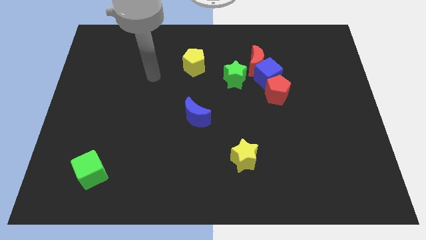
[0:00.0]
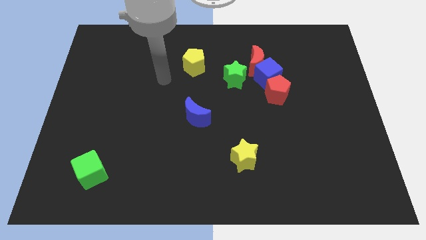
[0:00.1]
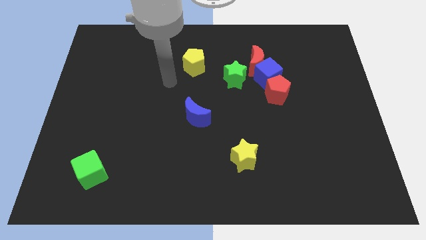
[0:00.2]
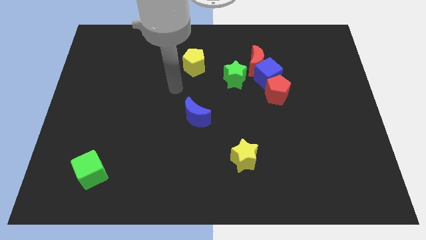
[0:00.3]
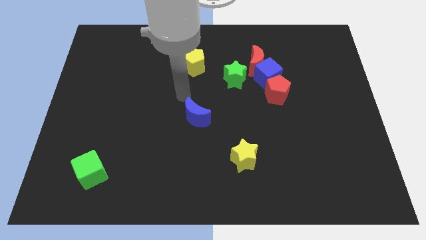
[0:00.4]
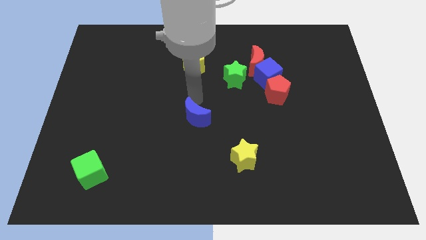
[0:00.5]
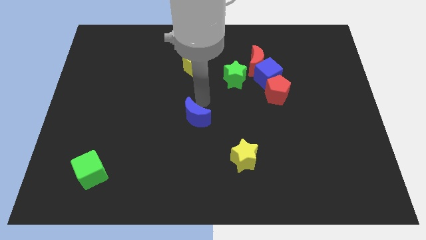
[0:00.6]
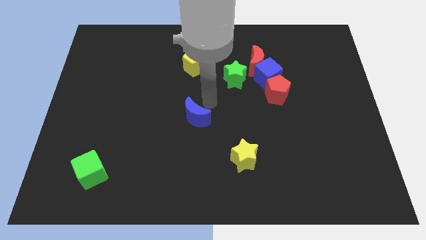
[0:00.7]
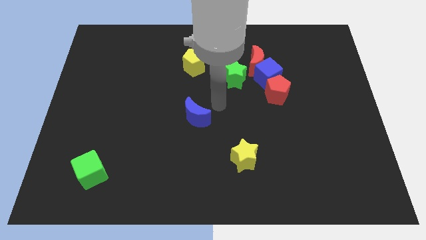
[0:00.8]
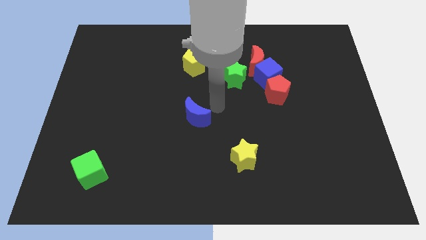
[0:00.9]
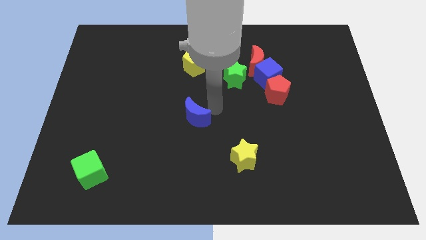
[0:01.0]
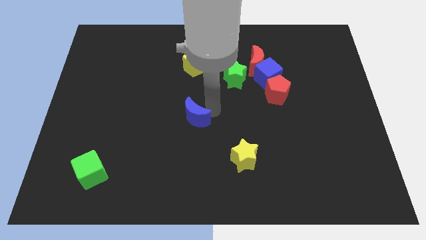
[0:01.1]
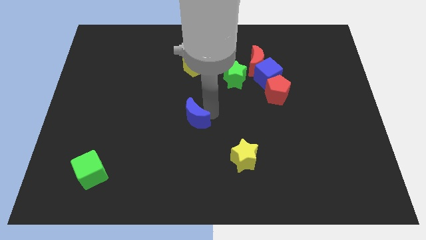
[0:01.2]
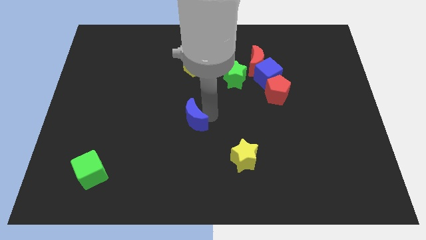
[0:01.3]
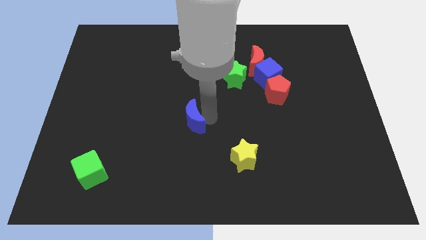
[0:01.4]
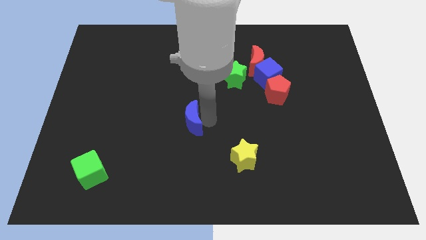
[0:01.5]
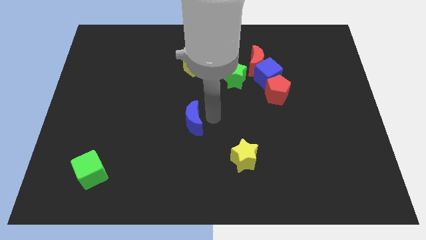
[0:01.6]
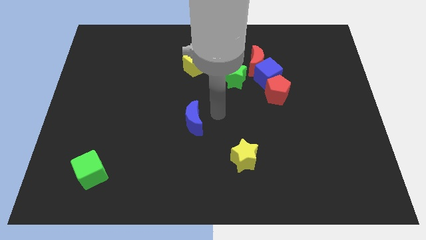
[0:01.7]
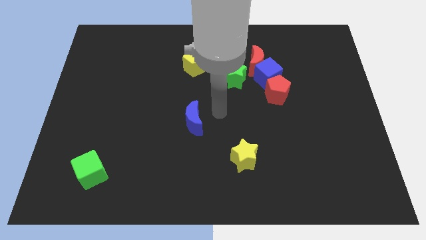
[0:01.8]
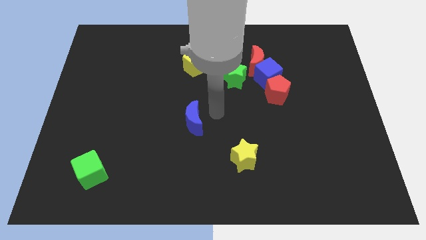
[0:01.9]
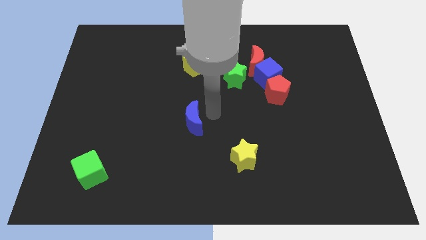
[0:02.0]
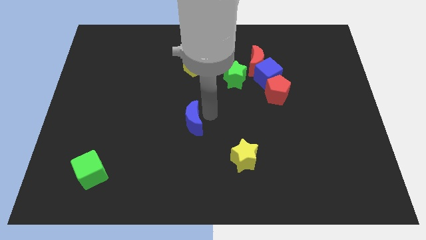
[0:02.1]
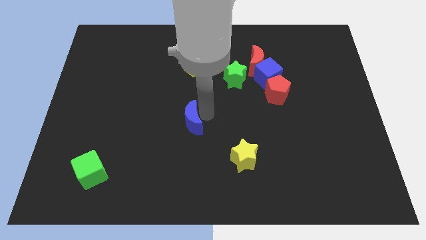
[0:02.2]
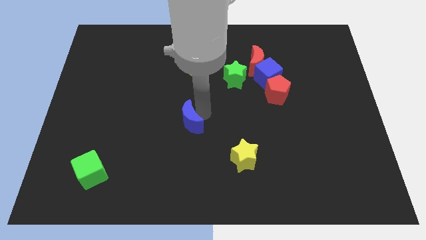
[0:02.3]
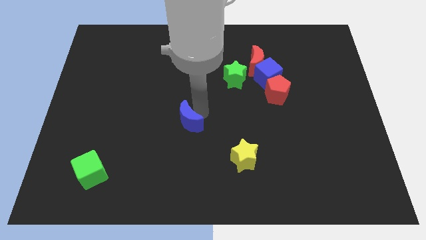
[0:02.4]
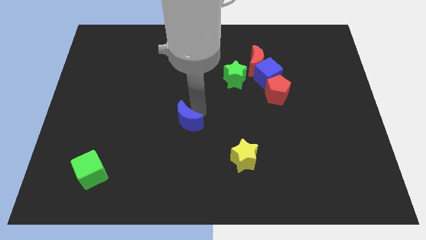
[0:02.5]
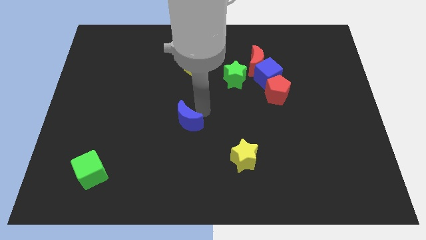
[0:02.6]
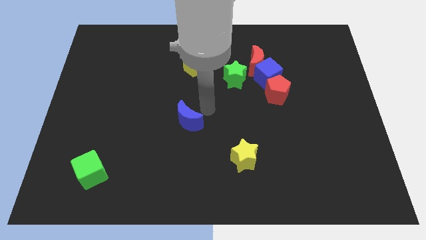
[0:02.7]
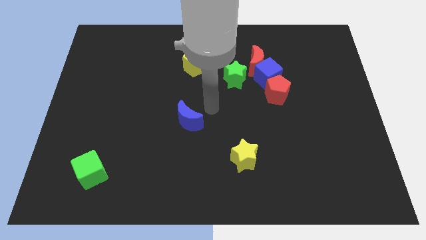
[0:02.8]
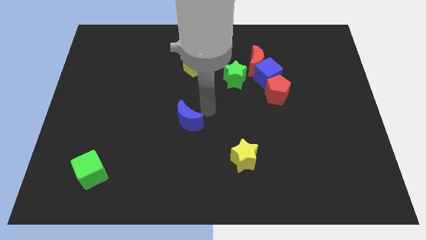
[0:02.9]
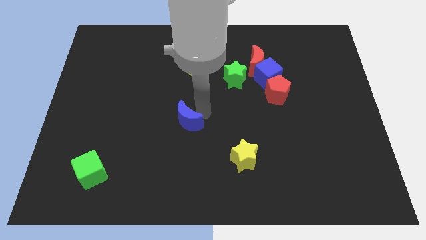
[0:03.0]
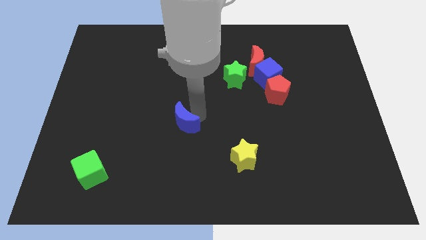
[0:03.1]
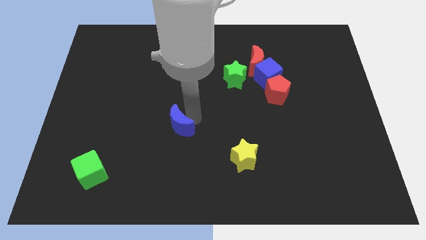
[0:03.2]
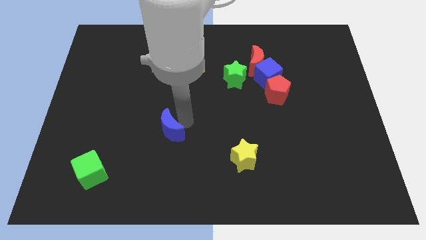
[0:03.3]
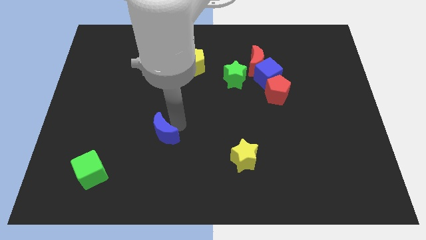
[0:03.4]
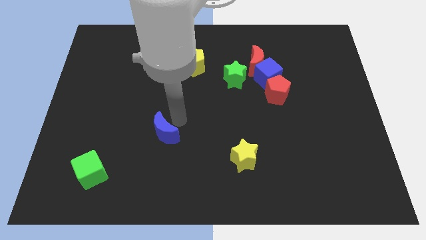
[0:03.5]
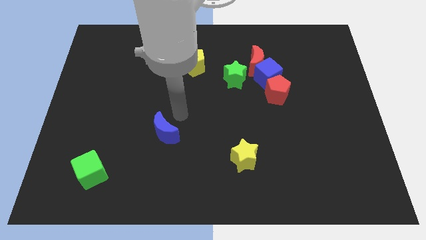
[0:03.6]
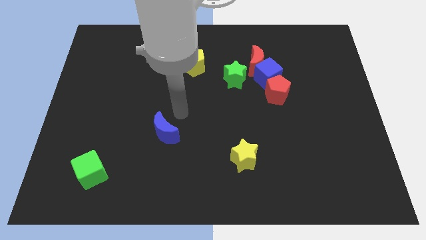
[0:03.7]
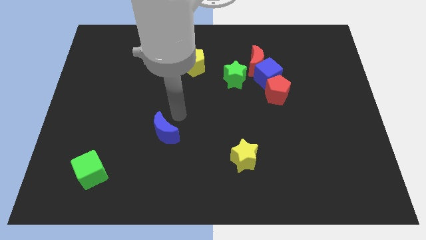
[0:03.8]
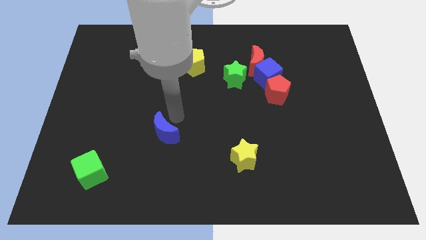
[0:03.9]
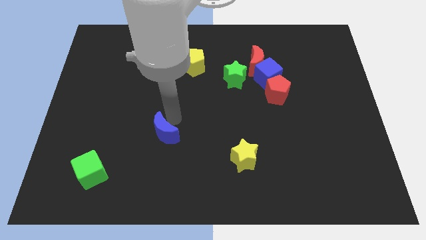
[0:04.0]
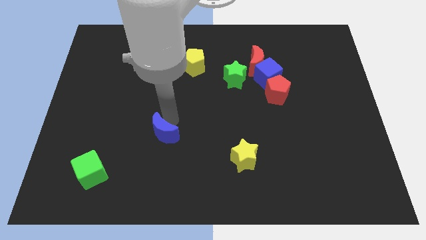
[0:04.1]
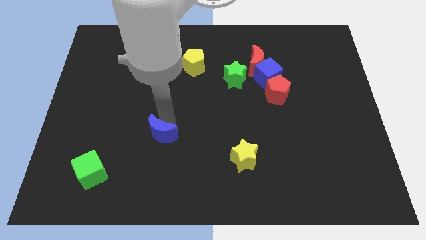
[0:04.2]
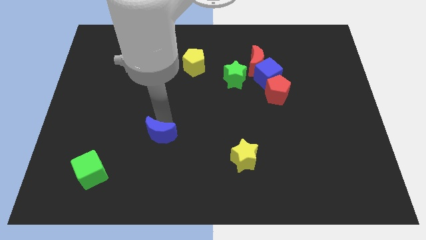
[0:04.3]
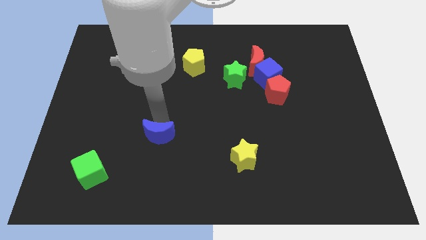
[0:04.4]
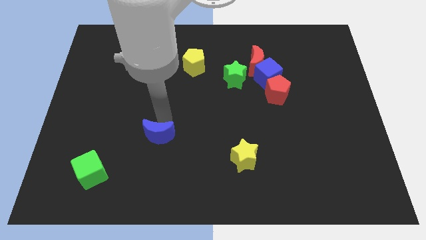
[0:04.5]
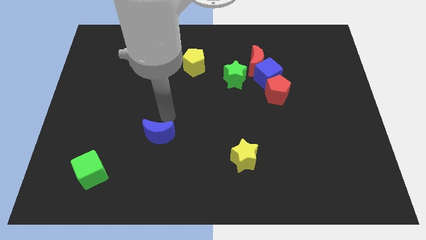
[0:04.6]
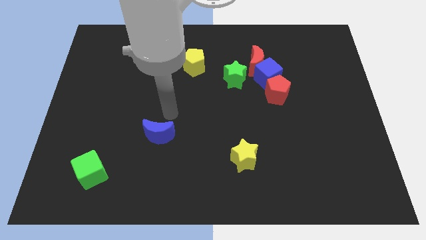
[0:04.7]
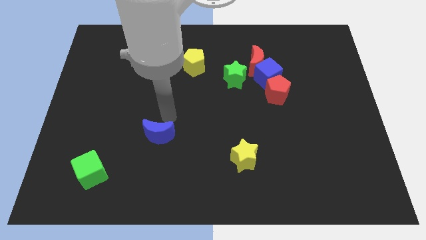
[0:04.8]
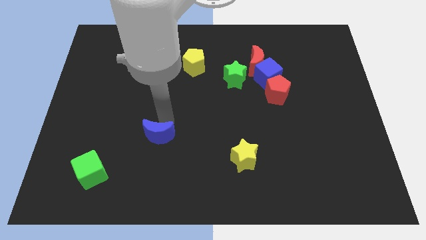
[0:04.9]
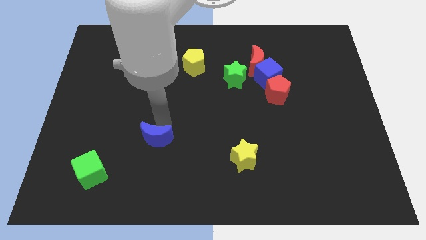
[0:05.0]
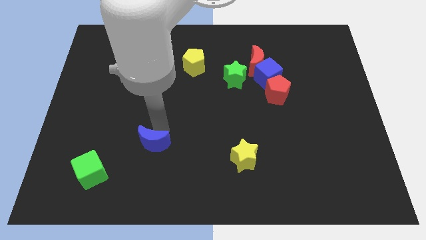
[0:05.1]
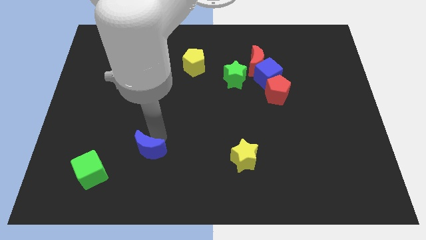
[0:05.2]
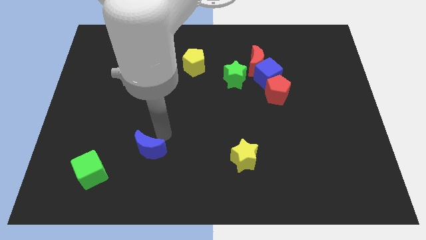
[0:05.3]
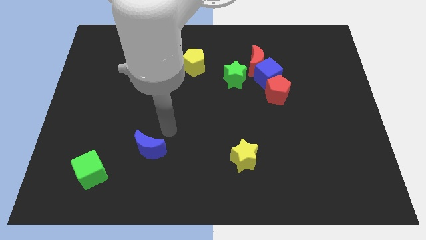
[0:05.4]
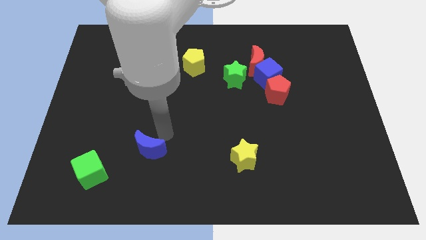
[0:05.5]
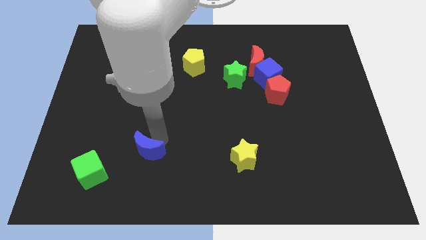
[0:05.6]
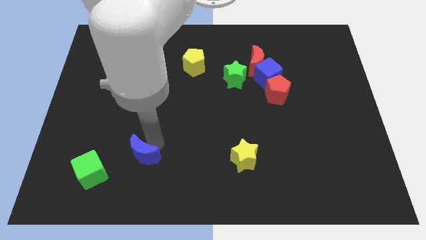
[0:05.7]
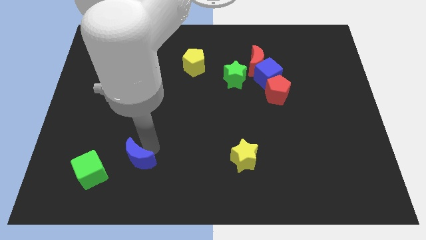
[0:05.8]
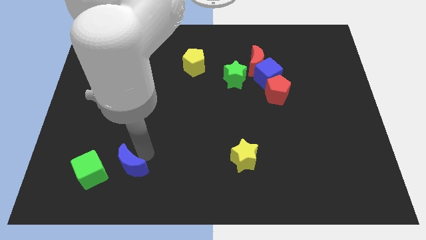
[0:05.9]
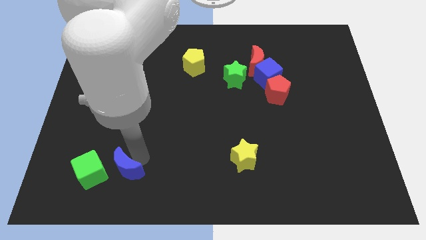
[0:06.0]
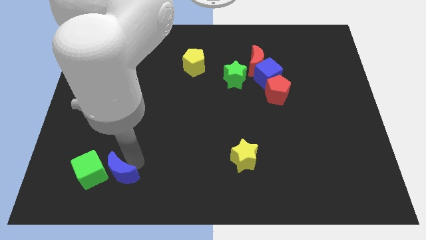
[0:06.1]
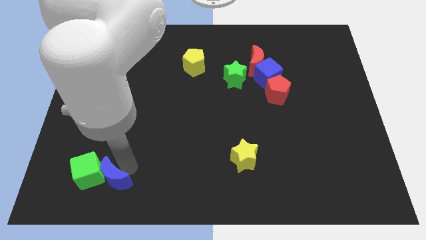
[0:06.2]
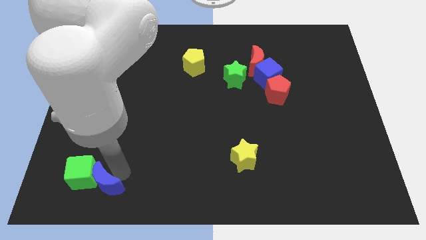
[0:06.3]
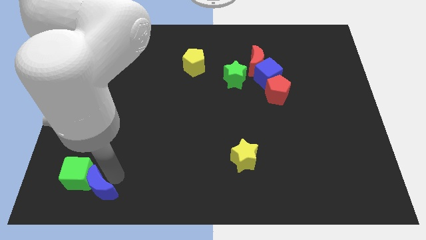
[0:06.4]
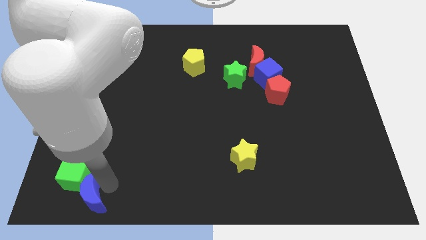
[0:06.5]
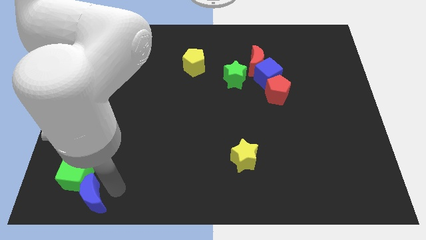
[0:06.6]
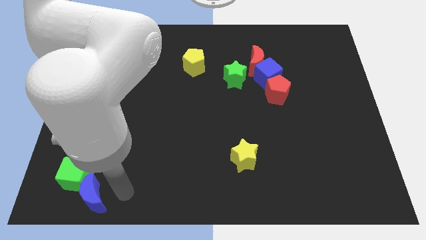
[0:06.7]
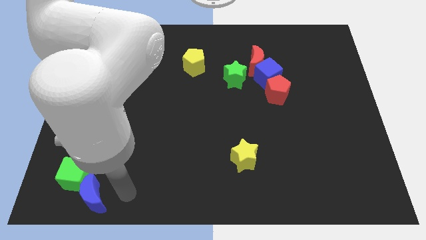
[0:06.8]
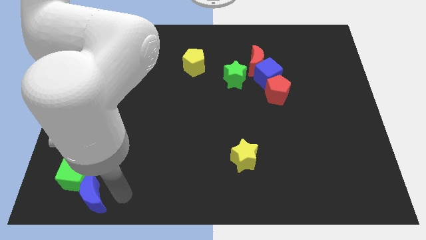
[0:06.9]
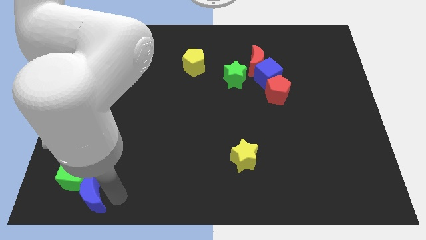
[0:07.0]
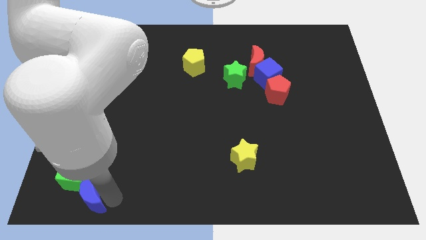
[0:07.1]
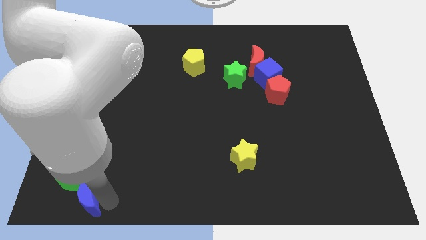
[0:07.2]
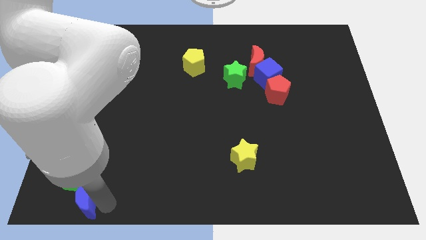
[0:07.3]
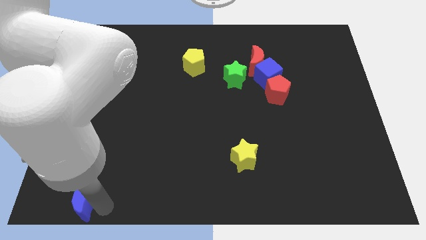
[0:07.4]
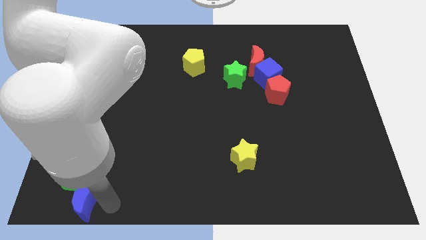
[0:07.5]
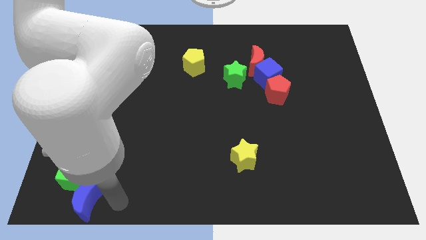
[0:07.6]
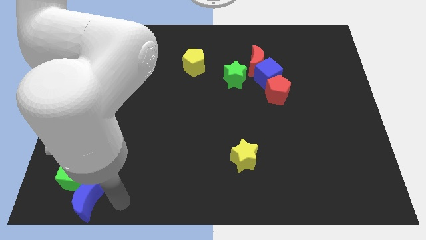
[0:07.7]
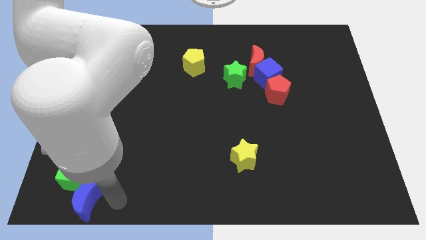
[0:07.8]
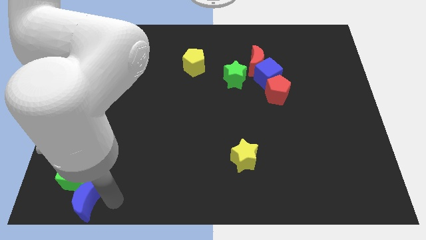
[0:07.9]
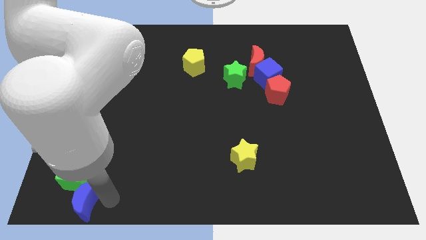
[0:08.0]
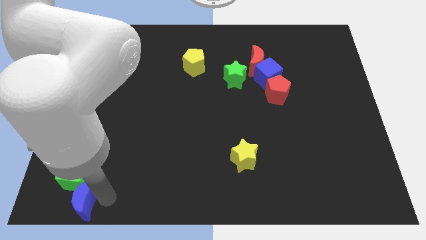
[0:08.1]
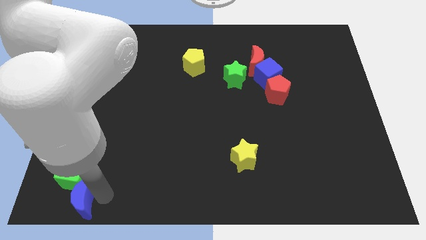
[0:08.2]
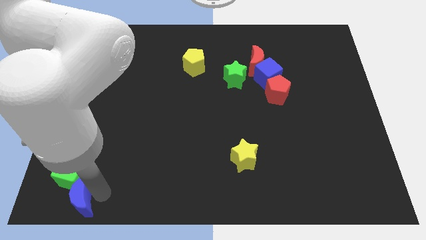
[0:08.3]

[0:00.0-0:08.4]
put the blue moon to the bottom left corner
